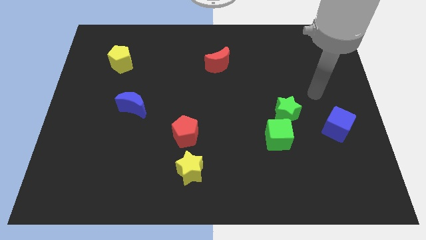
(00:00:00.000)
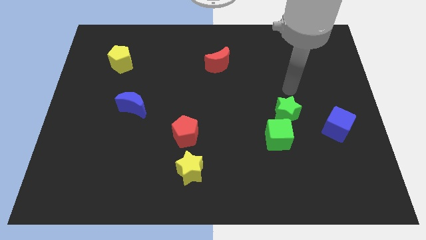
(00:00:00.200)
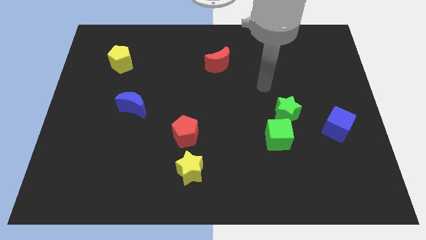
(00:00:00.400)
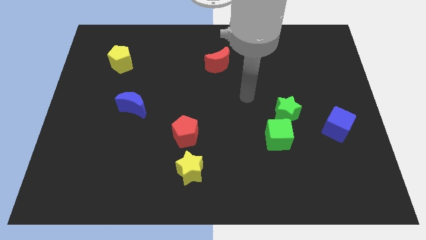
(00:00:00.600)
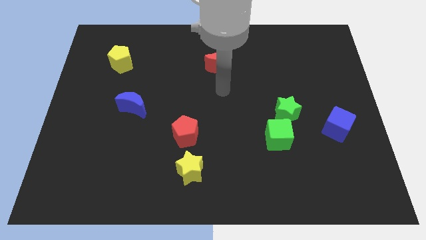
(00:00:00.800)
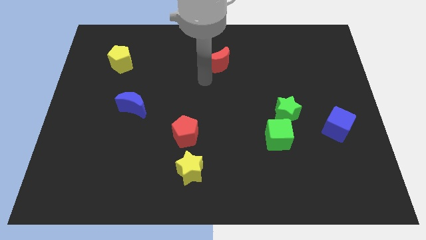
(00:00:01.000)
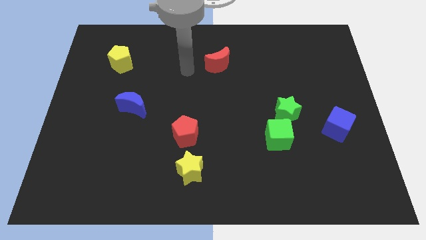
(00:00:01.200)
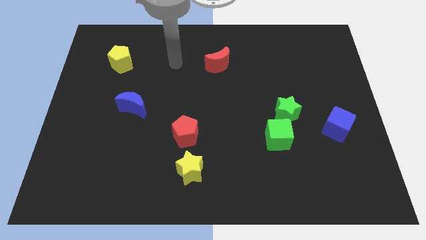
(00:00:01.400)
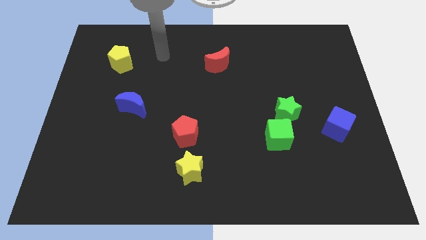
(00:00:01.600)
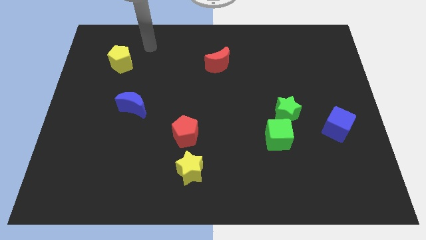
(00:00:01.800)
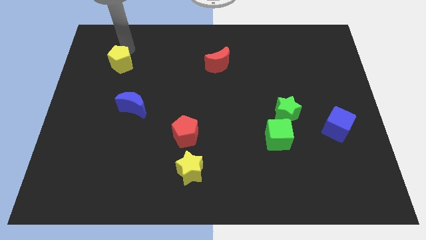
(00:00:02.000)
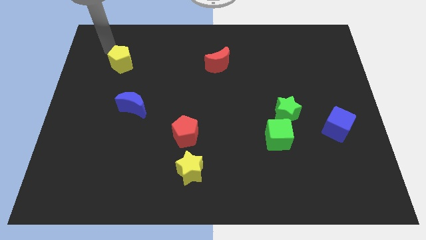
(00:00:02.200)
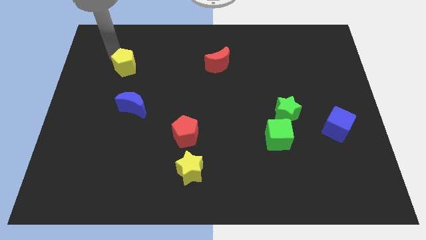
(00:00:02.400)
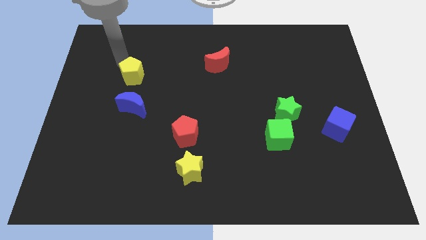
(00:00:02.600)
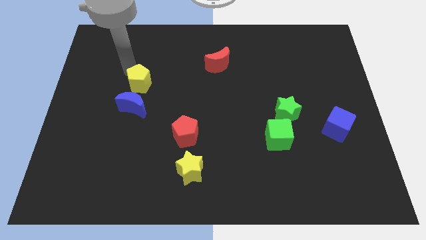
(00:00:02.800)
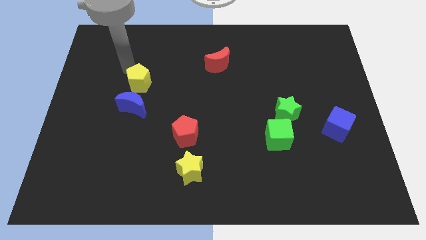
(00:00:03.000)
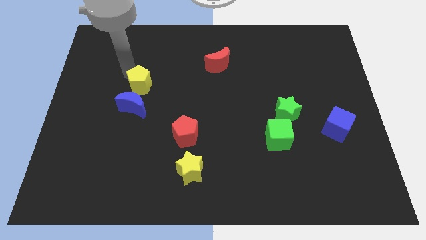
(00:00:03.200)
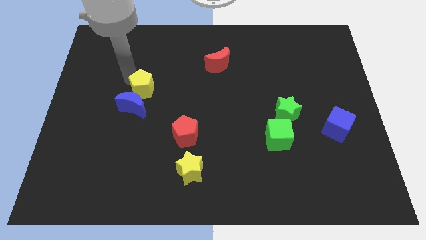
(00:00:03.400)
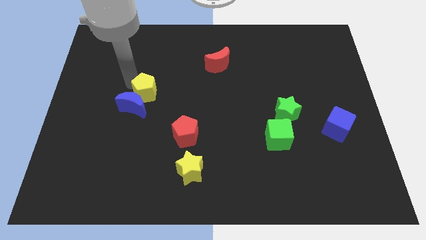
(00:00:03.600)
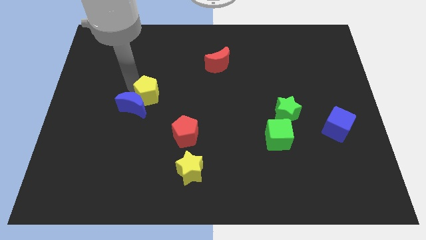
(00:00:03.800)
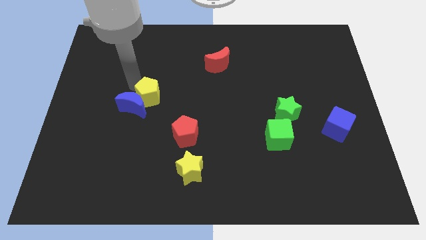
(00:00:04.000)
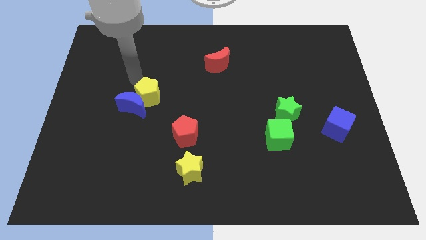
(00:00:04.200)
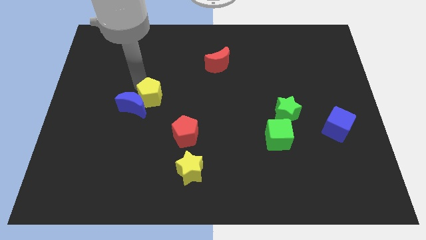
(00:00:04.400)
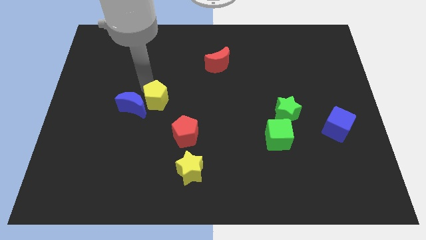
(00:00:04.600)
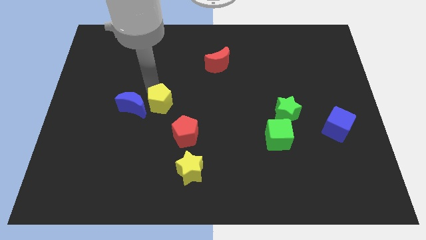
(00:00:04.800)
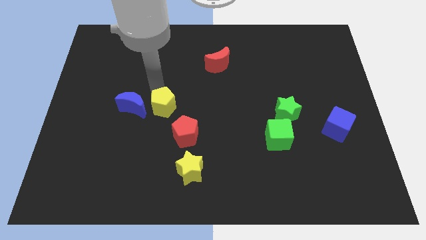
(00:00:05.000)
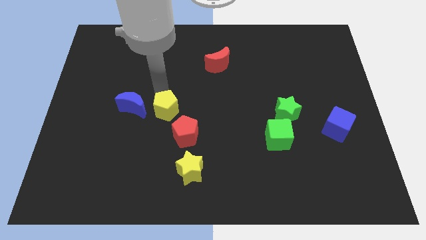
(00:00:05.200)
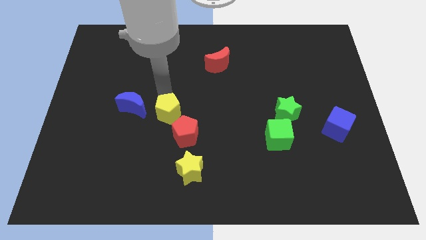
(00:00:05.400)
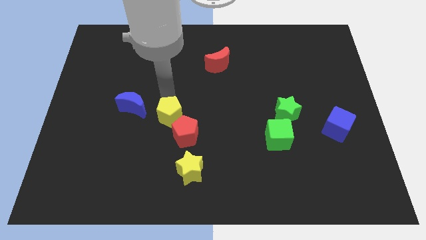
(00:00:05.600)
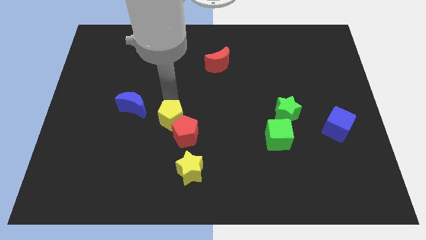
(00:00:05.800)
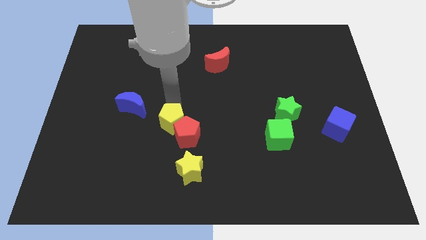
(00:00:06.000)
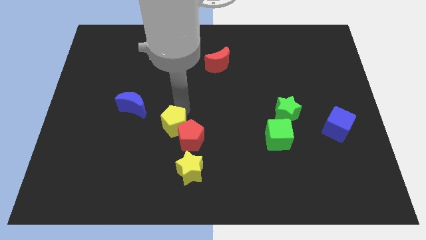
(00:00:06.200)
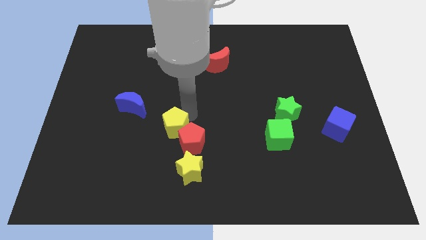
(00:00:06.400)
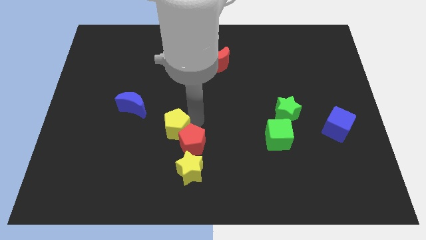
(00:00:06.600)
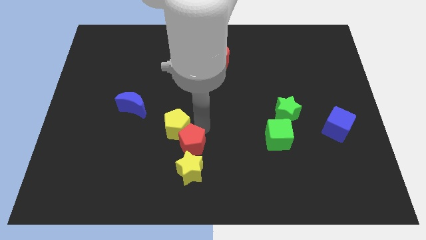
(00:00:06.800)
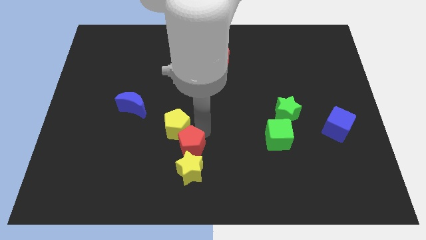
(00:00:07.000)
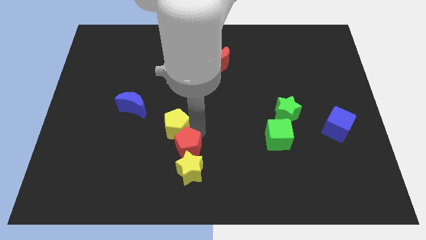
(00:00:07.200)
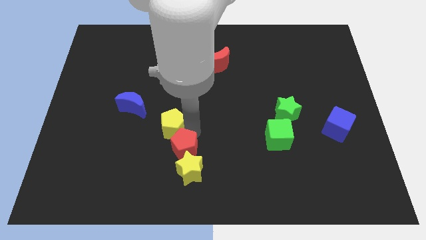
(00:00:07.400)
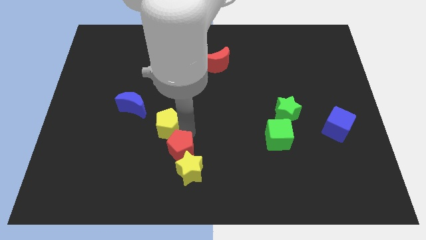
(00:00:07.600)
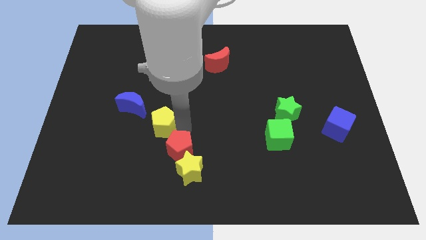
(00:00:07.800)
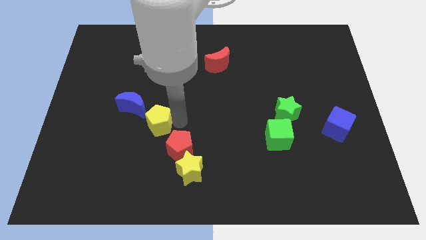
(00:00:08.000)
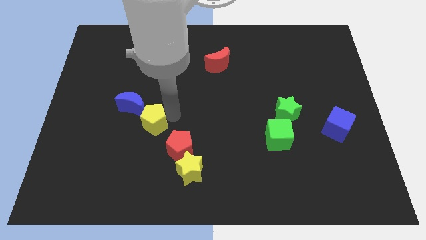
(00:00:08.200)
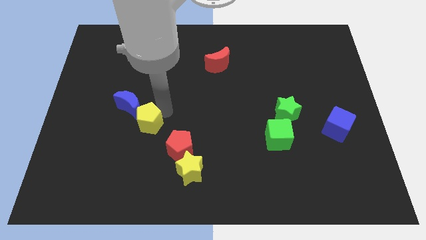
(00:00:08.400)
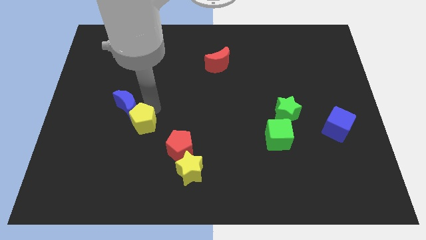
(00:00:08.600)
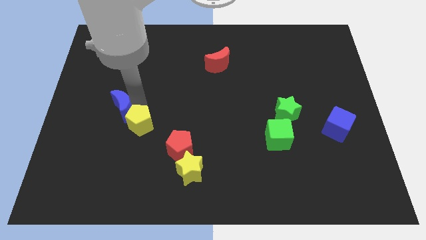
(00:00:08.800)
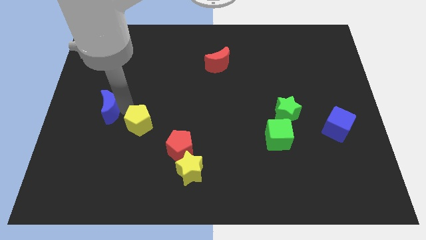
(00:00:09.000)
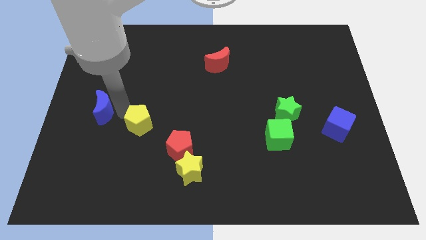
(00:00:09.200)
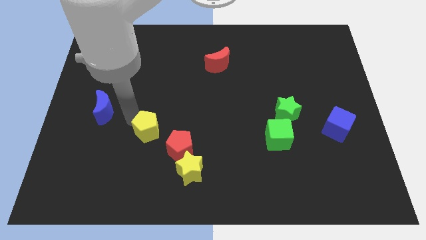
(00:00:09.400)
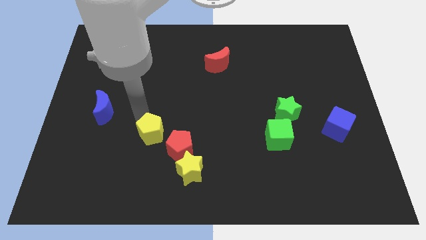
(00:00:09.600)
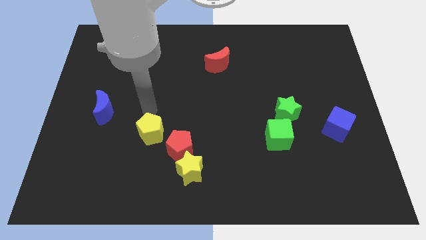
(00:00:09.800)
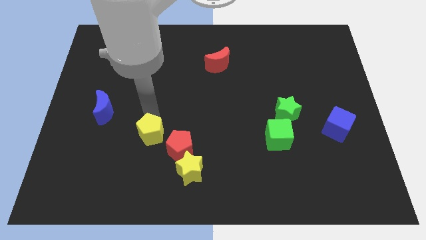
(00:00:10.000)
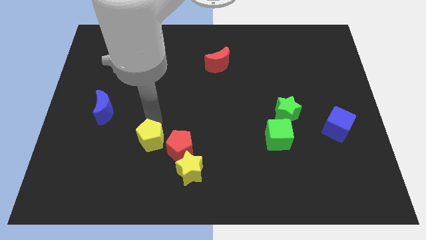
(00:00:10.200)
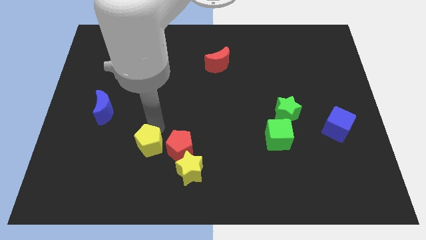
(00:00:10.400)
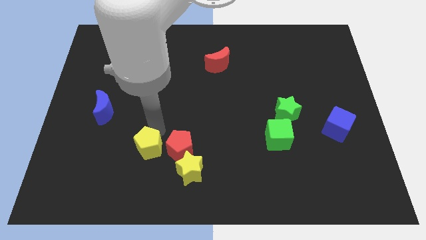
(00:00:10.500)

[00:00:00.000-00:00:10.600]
move the yellow pentagon diagonally down and to the left of the red pentagon

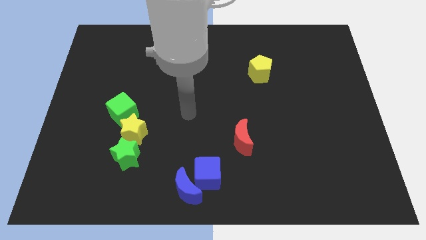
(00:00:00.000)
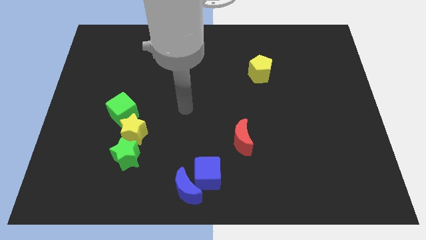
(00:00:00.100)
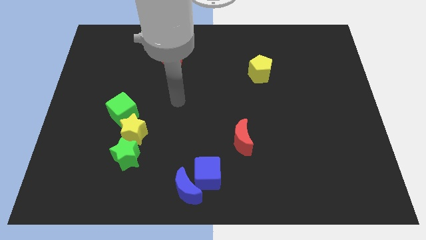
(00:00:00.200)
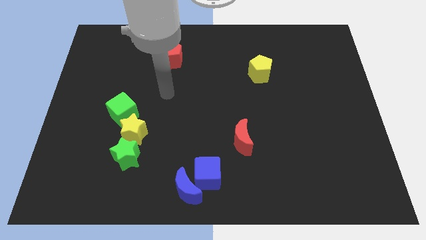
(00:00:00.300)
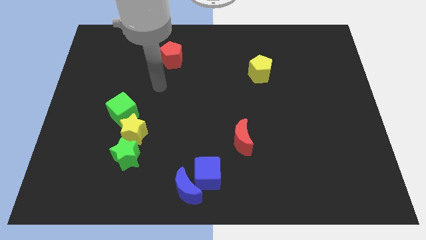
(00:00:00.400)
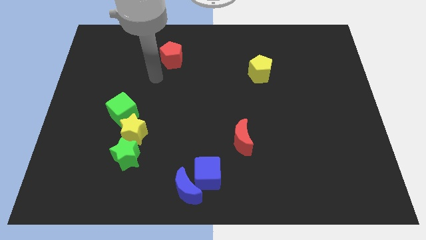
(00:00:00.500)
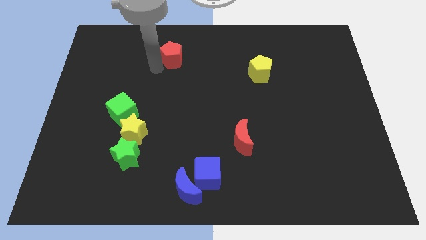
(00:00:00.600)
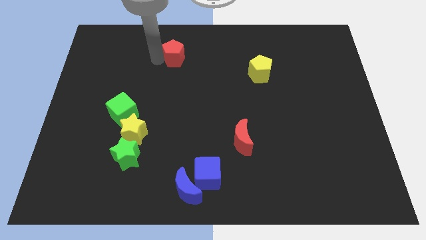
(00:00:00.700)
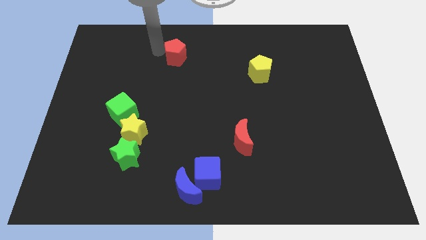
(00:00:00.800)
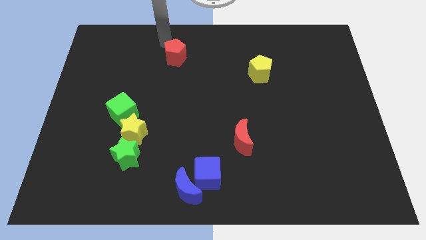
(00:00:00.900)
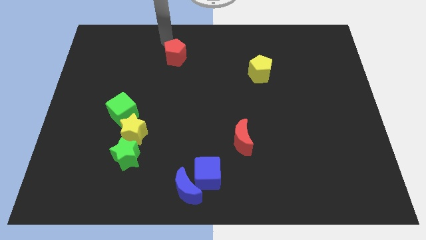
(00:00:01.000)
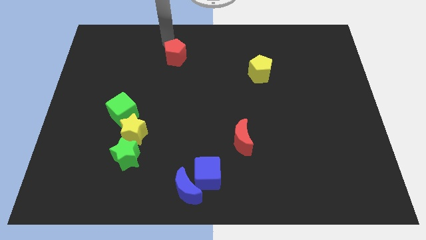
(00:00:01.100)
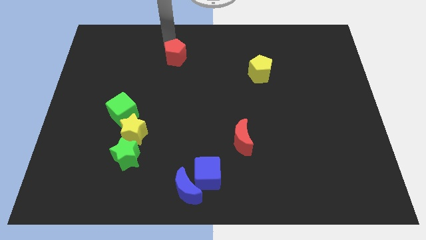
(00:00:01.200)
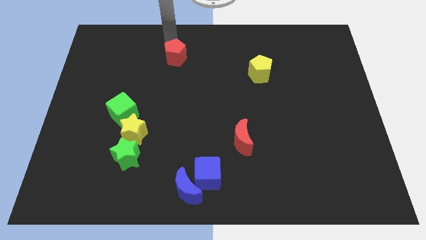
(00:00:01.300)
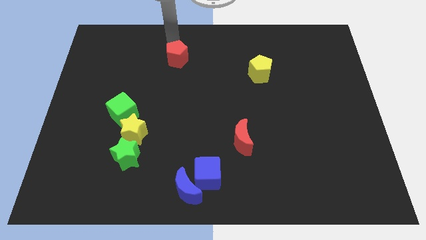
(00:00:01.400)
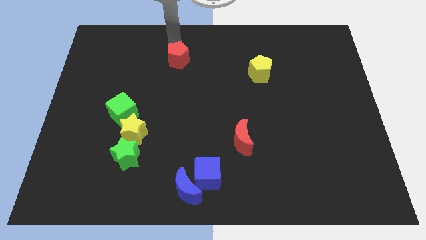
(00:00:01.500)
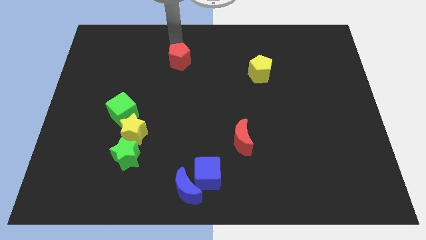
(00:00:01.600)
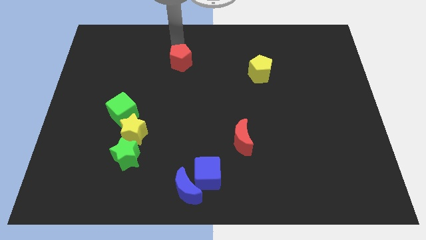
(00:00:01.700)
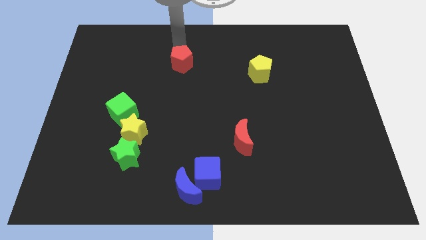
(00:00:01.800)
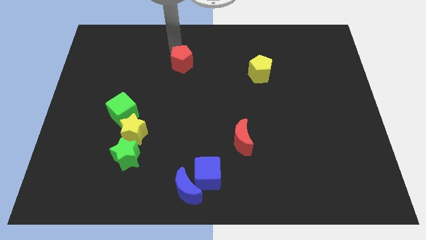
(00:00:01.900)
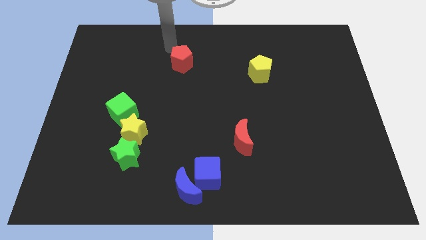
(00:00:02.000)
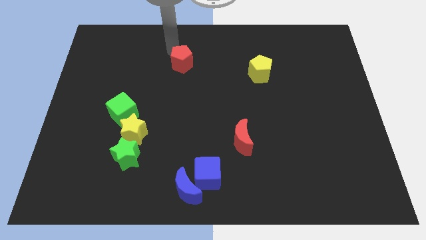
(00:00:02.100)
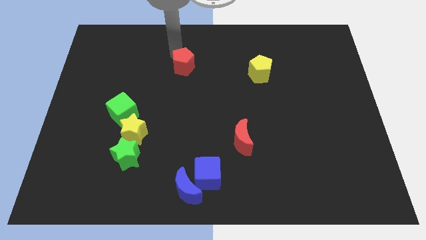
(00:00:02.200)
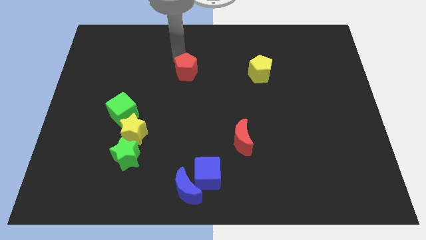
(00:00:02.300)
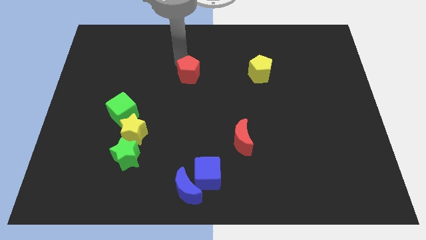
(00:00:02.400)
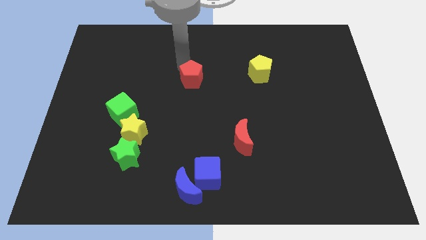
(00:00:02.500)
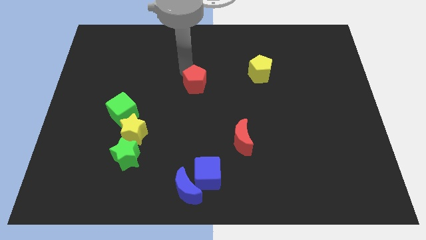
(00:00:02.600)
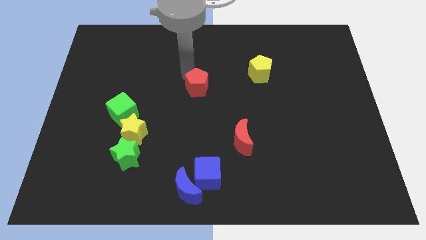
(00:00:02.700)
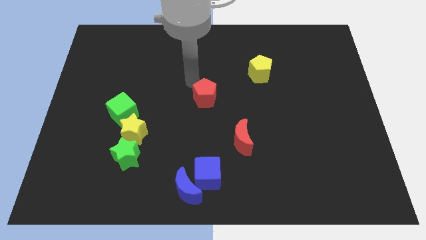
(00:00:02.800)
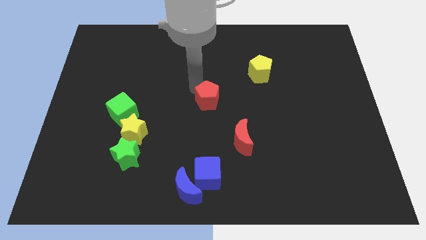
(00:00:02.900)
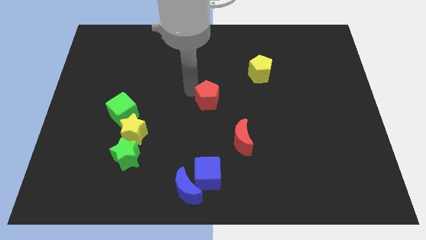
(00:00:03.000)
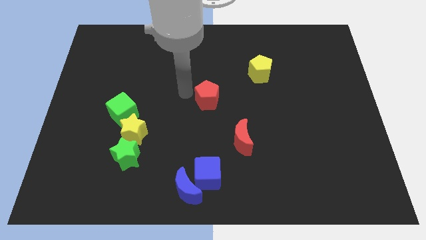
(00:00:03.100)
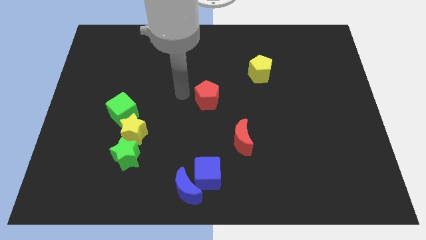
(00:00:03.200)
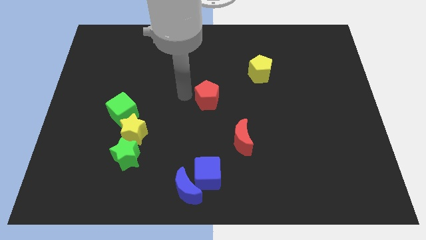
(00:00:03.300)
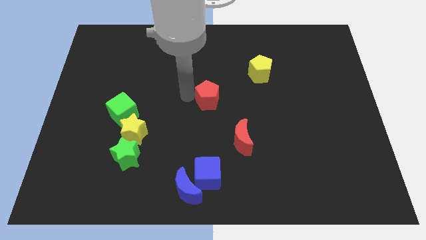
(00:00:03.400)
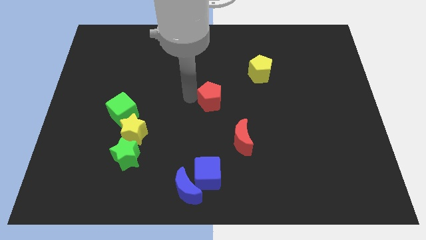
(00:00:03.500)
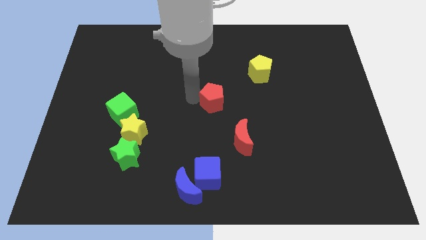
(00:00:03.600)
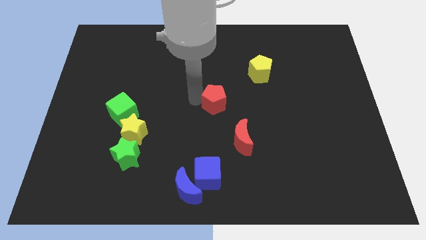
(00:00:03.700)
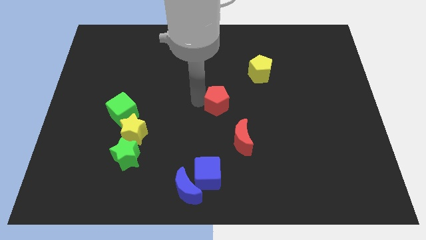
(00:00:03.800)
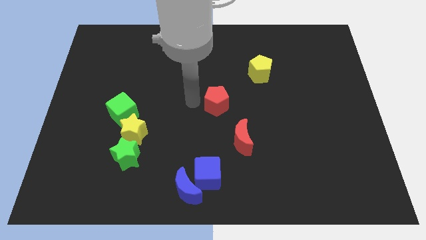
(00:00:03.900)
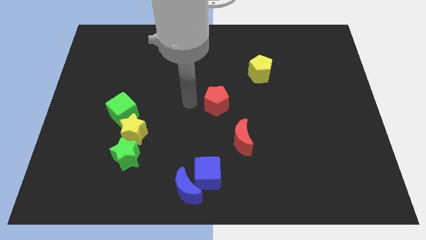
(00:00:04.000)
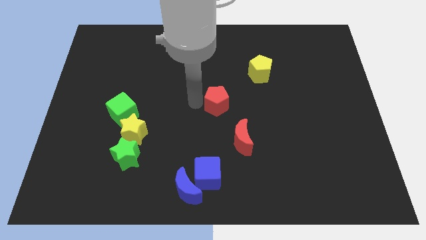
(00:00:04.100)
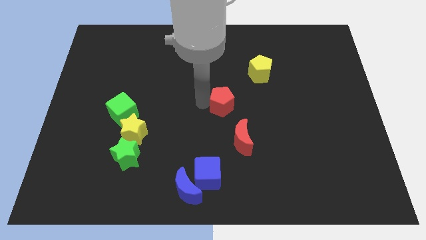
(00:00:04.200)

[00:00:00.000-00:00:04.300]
move the red pentagon to the top of the red moon
